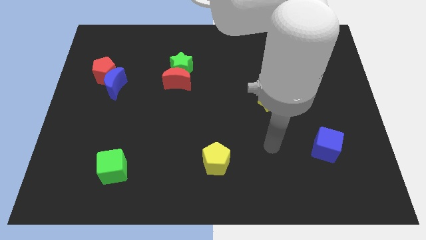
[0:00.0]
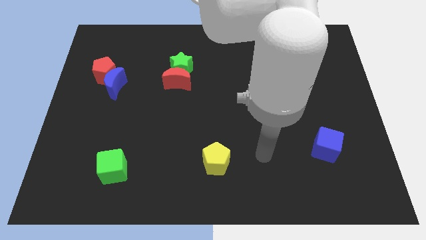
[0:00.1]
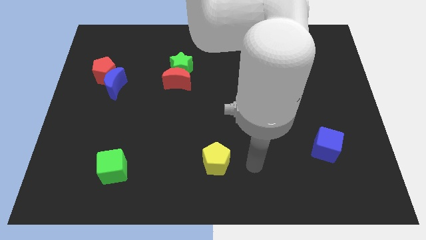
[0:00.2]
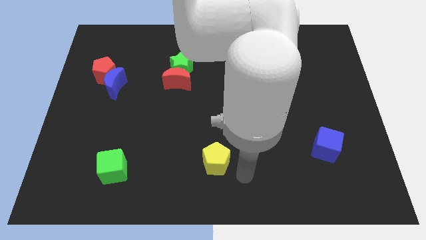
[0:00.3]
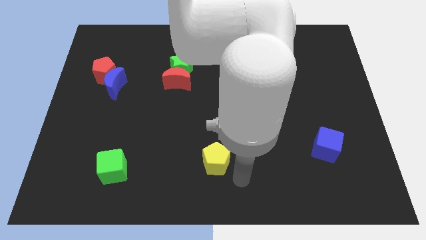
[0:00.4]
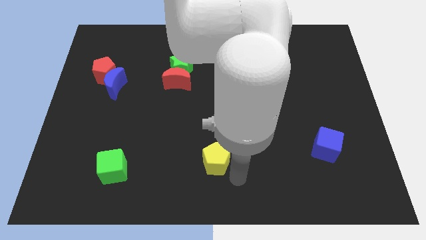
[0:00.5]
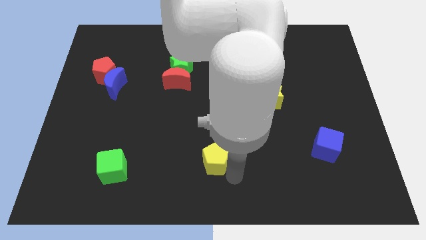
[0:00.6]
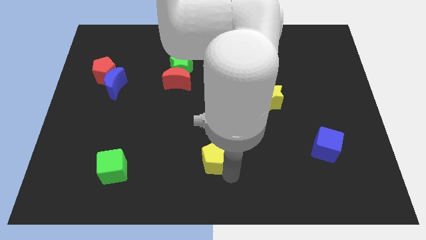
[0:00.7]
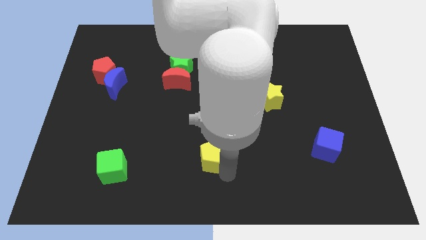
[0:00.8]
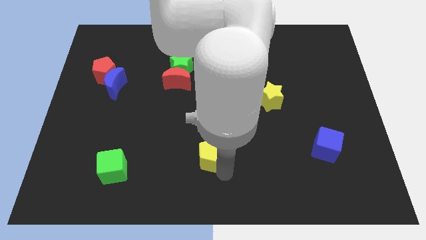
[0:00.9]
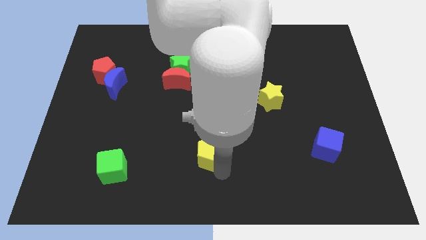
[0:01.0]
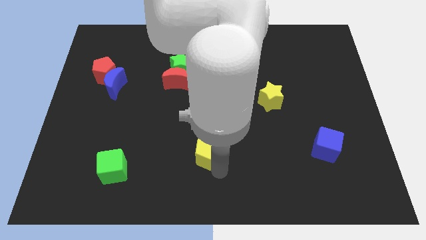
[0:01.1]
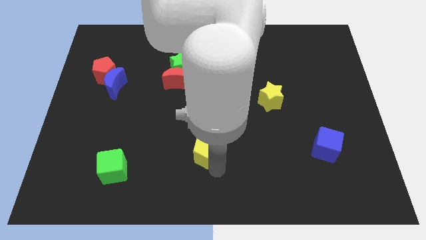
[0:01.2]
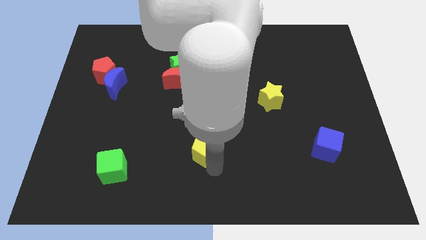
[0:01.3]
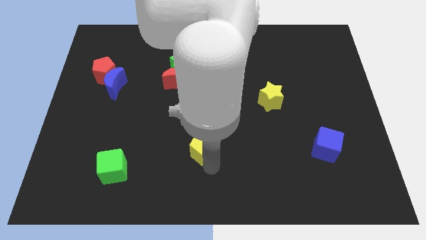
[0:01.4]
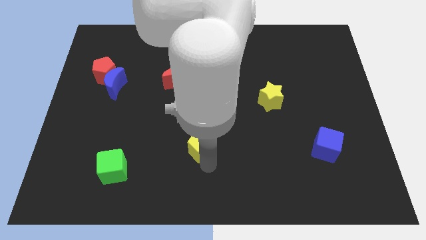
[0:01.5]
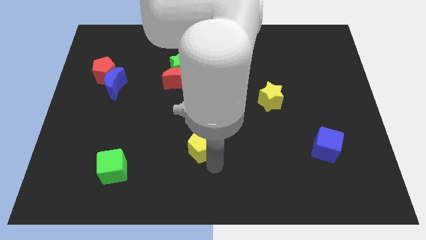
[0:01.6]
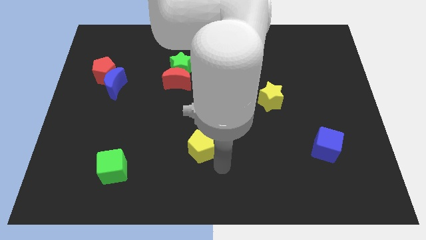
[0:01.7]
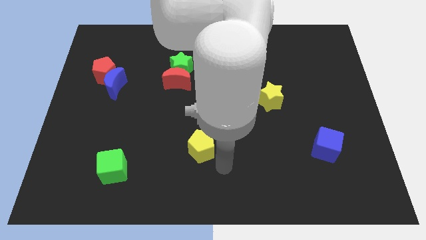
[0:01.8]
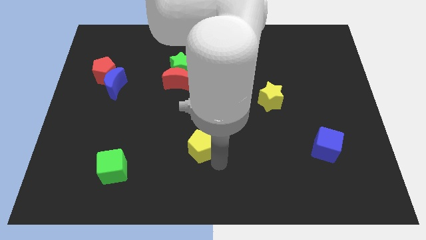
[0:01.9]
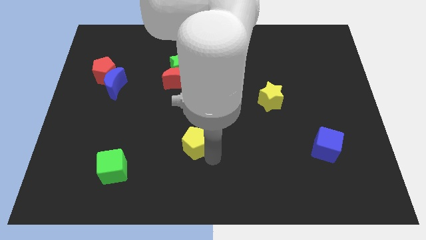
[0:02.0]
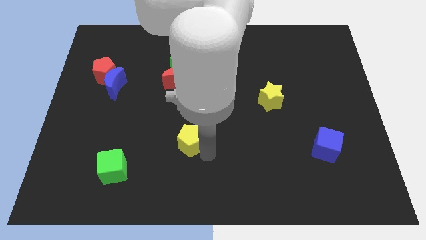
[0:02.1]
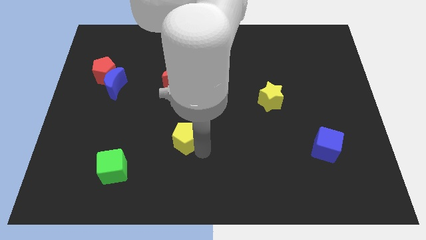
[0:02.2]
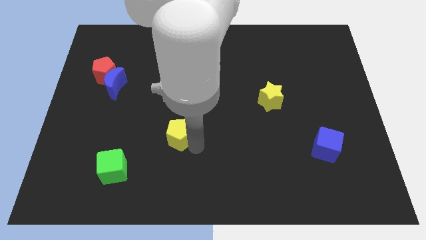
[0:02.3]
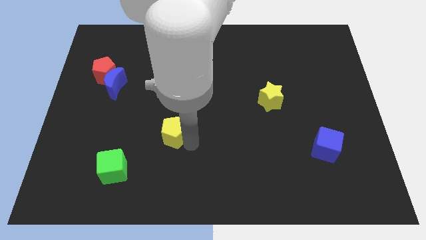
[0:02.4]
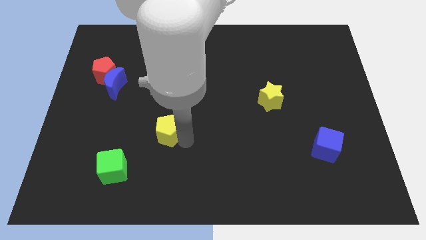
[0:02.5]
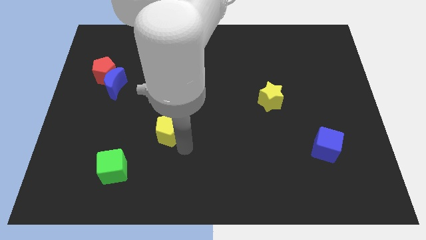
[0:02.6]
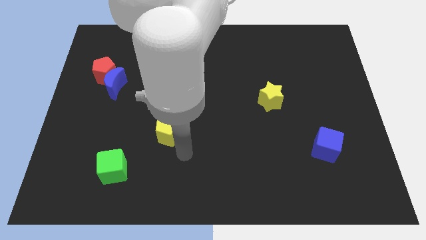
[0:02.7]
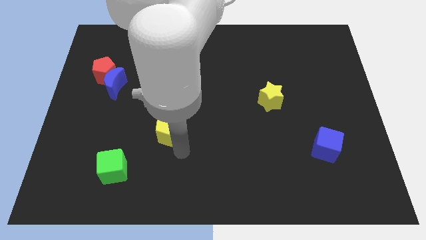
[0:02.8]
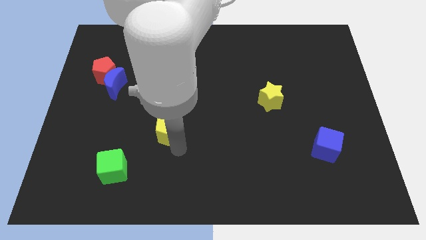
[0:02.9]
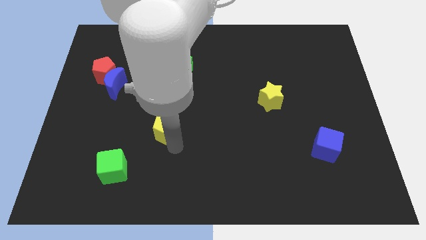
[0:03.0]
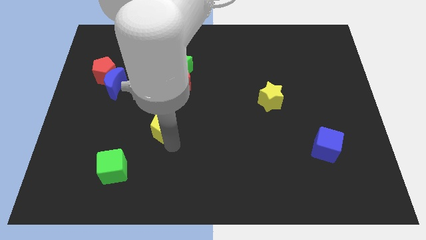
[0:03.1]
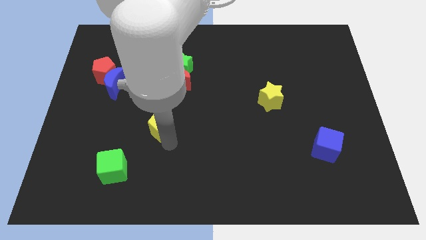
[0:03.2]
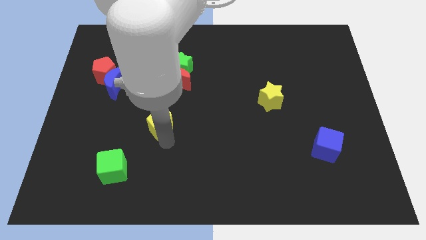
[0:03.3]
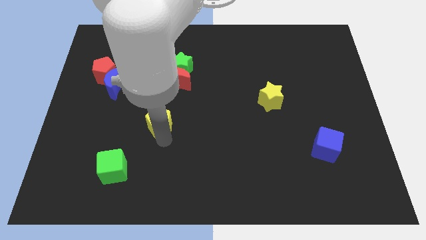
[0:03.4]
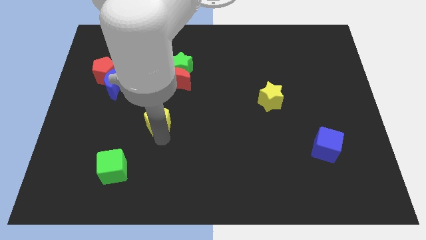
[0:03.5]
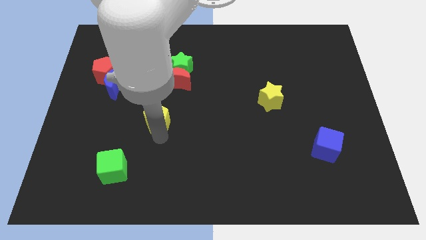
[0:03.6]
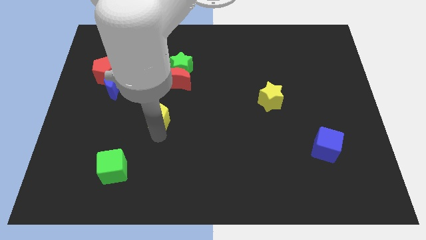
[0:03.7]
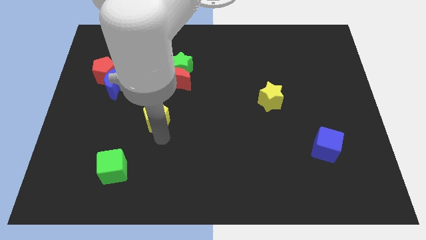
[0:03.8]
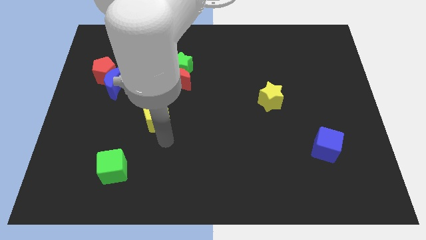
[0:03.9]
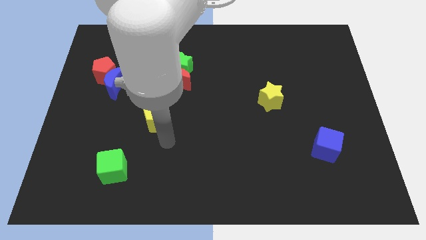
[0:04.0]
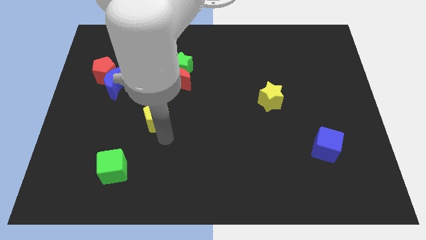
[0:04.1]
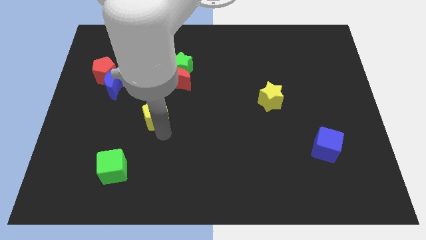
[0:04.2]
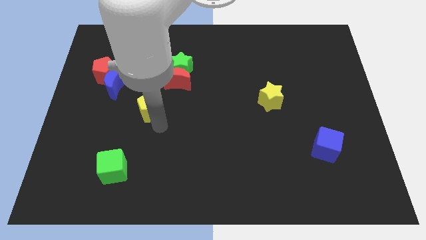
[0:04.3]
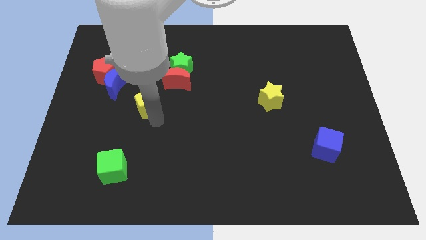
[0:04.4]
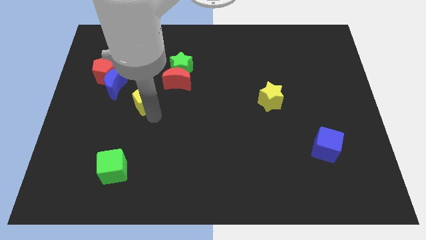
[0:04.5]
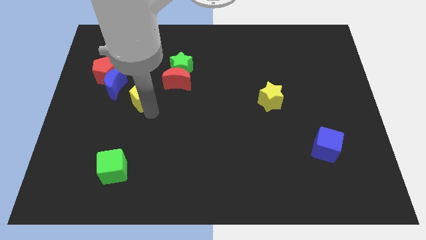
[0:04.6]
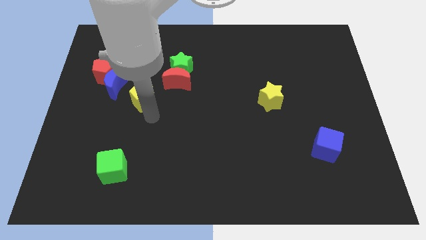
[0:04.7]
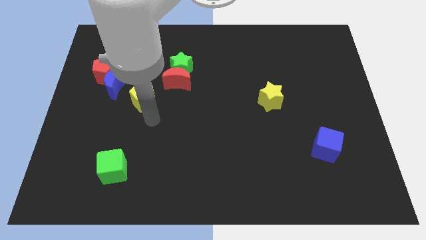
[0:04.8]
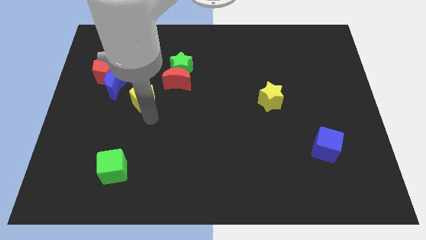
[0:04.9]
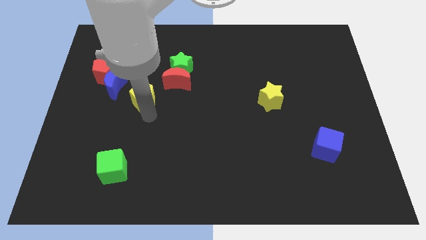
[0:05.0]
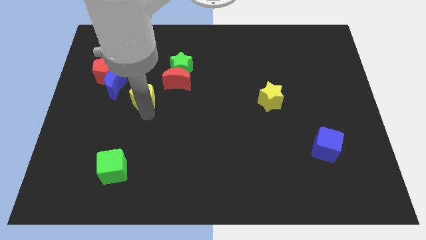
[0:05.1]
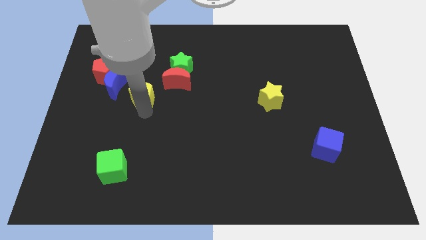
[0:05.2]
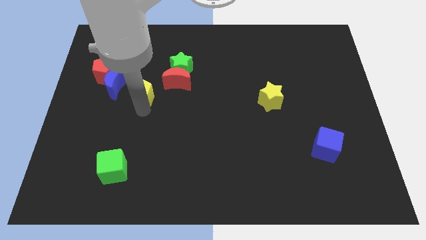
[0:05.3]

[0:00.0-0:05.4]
move the yellow pentagon left of the red moon
